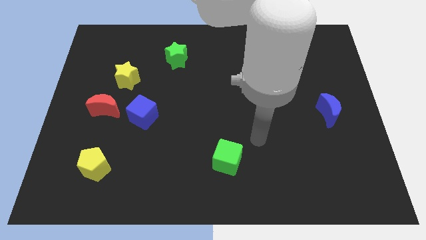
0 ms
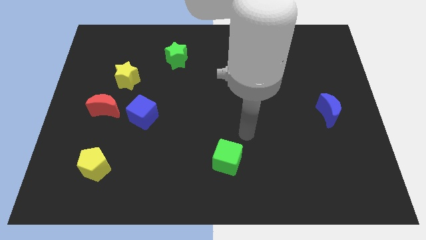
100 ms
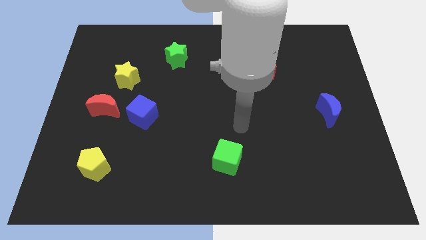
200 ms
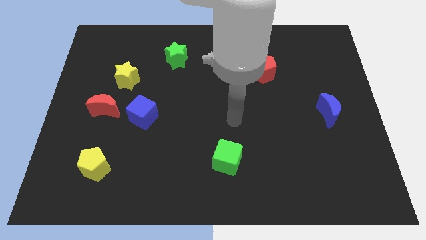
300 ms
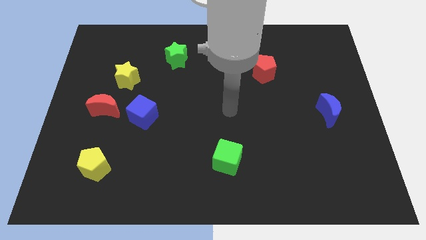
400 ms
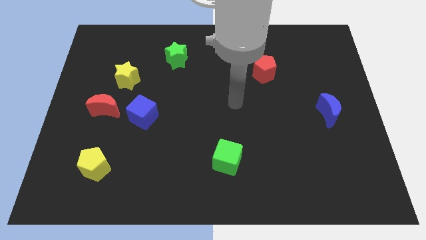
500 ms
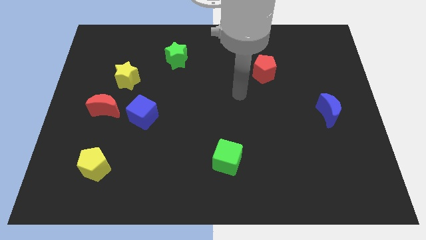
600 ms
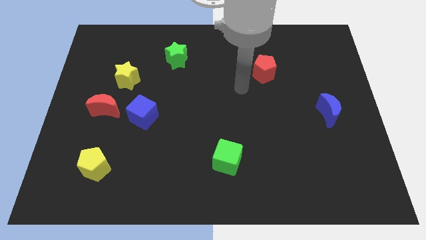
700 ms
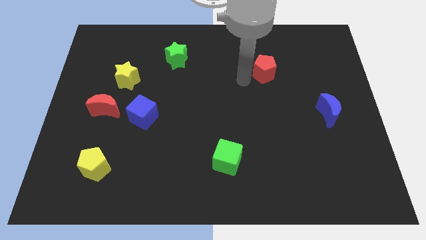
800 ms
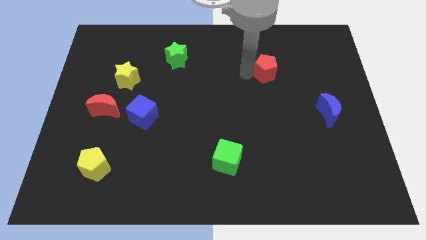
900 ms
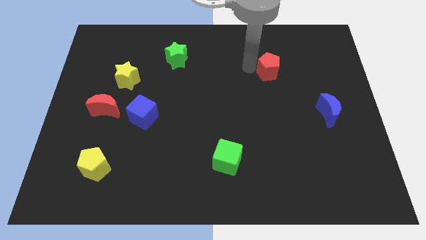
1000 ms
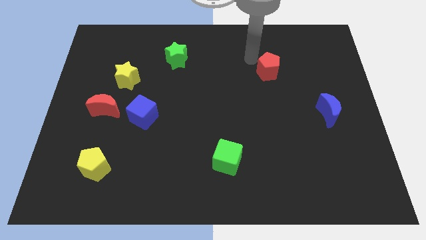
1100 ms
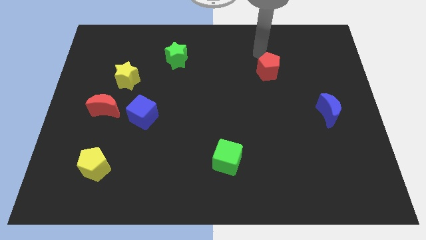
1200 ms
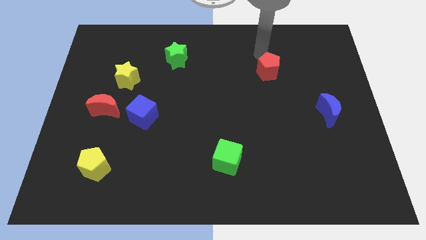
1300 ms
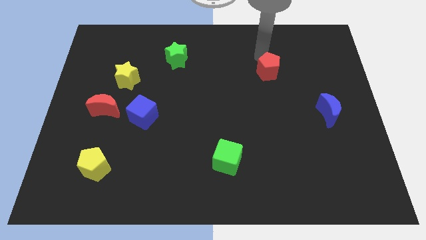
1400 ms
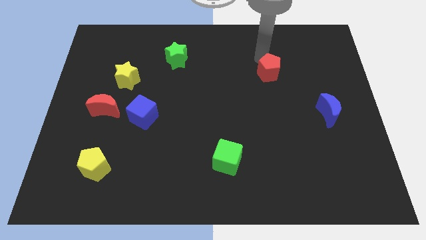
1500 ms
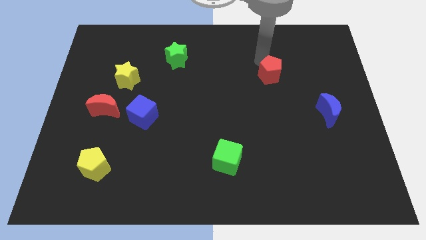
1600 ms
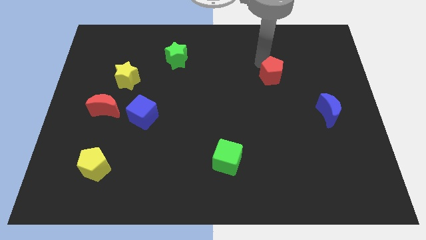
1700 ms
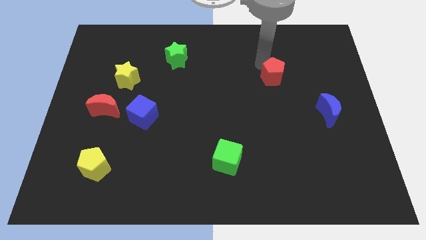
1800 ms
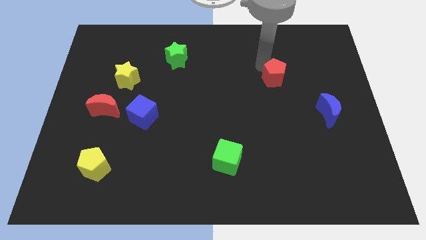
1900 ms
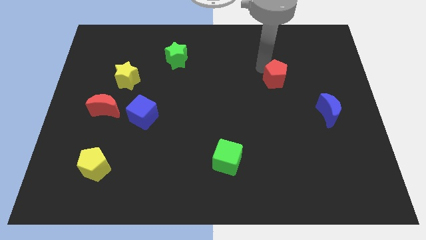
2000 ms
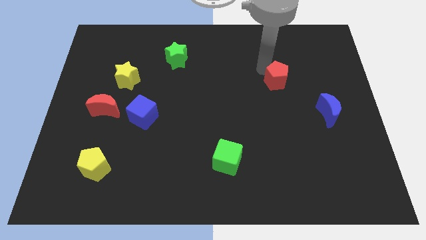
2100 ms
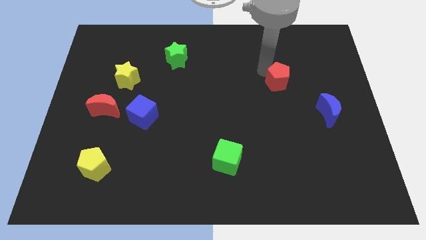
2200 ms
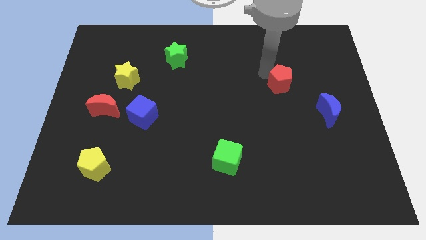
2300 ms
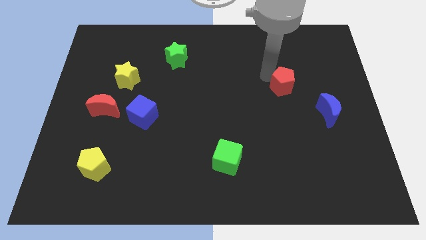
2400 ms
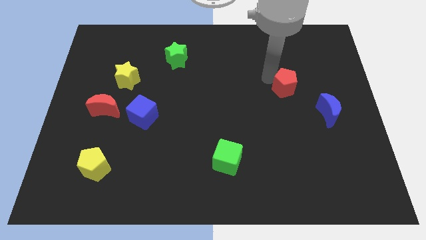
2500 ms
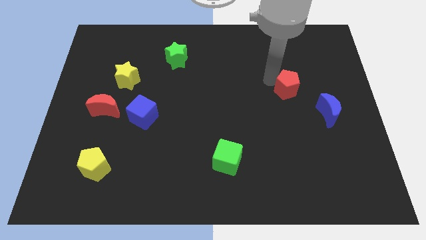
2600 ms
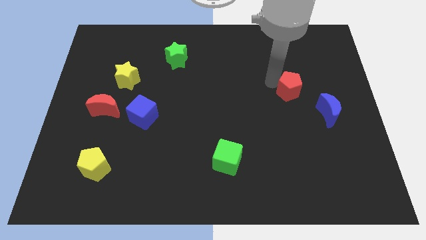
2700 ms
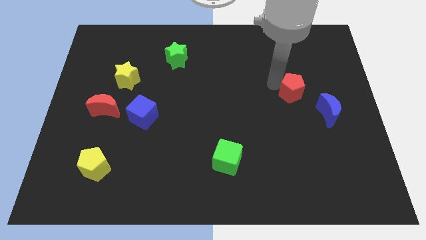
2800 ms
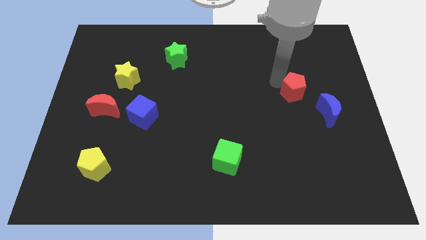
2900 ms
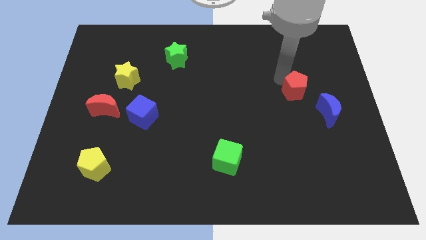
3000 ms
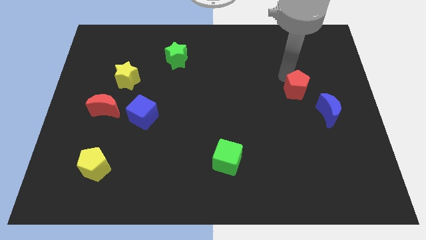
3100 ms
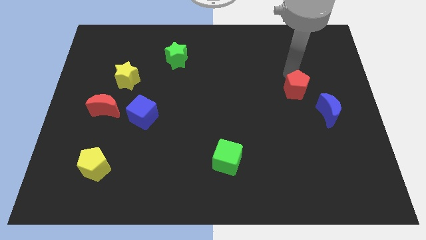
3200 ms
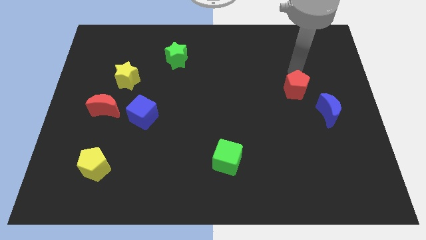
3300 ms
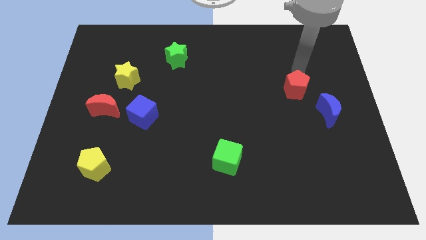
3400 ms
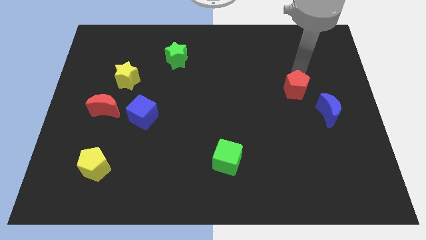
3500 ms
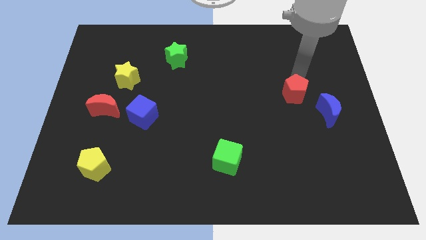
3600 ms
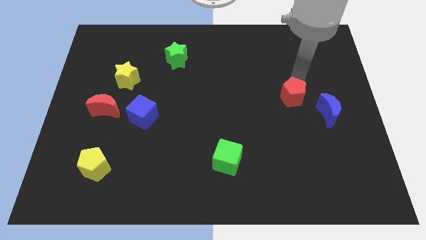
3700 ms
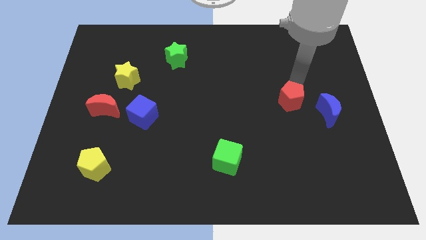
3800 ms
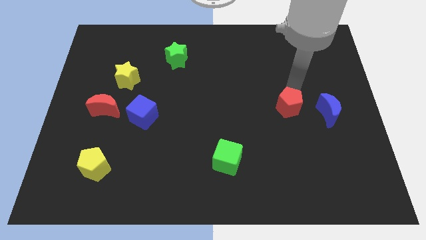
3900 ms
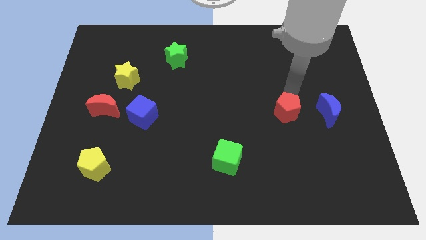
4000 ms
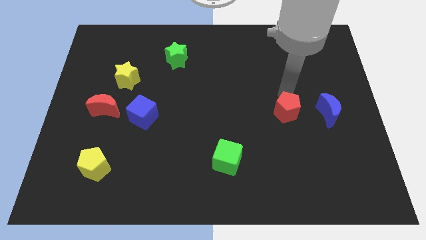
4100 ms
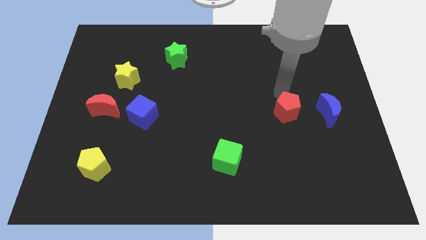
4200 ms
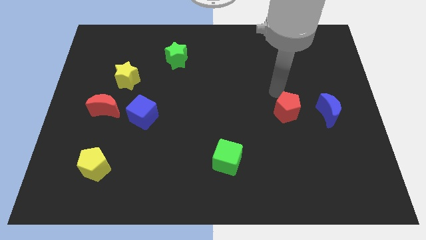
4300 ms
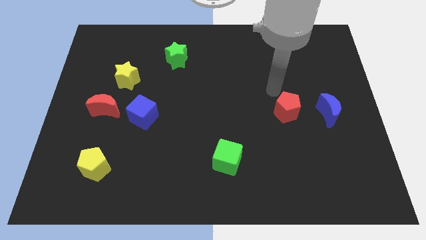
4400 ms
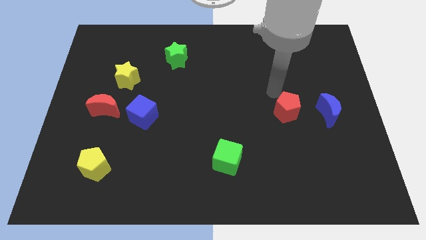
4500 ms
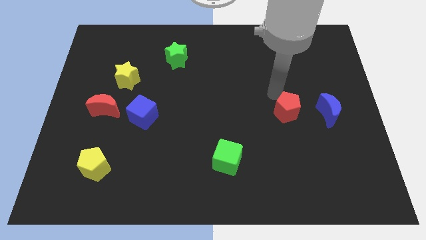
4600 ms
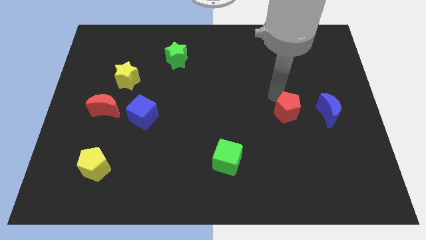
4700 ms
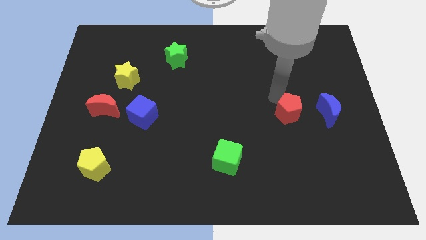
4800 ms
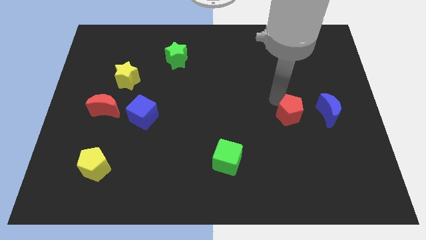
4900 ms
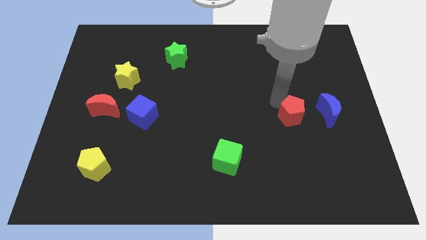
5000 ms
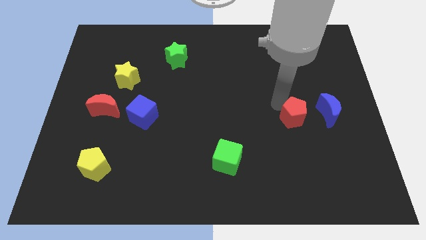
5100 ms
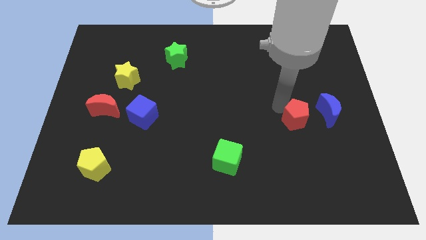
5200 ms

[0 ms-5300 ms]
move the red pentagon to the bottom left of the blue moon

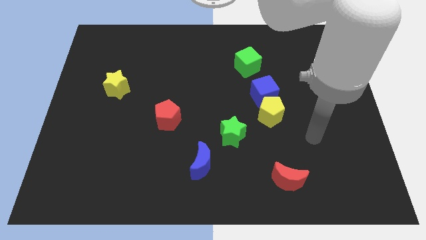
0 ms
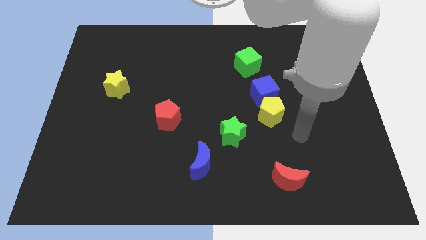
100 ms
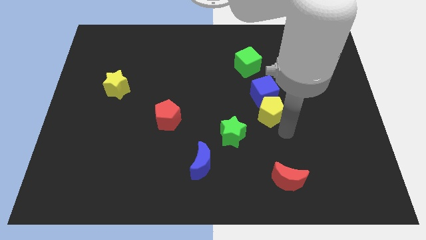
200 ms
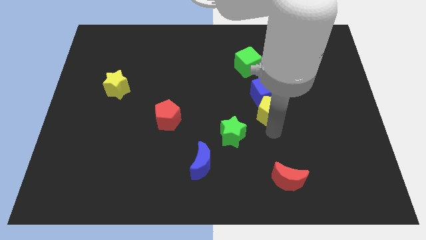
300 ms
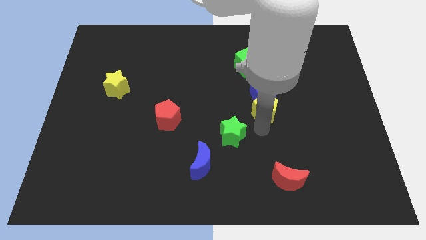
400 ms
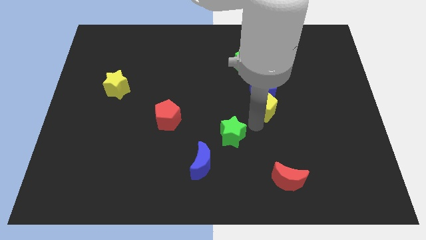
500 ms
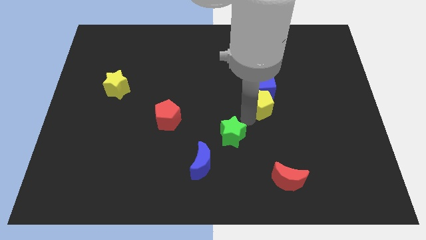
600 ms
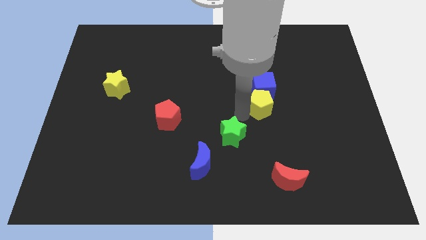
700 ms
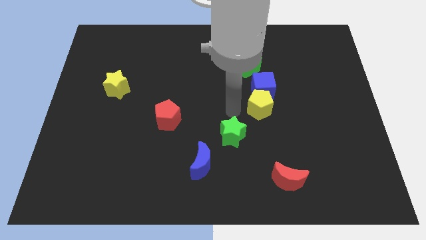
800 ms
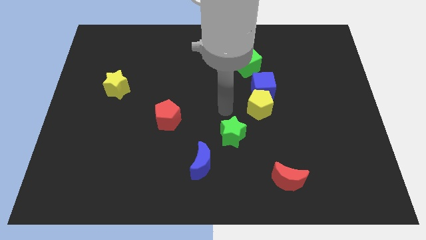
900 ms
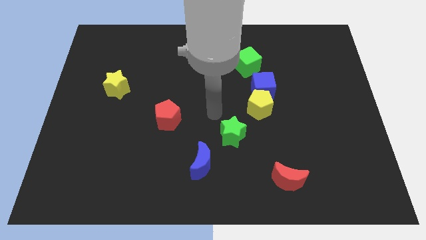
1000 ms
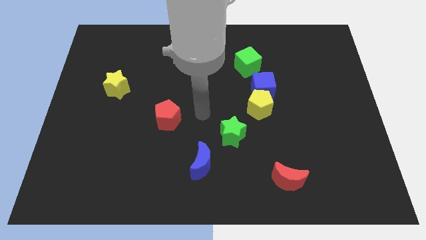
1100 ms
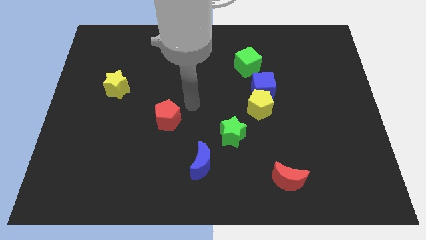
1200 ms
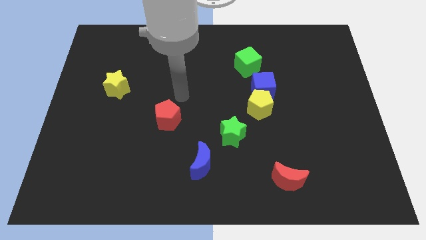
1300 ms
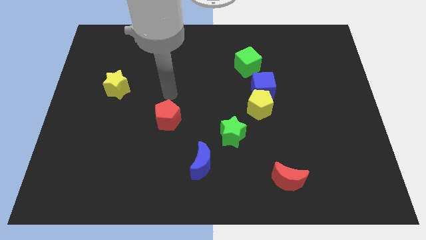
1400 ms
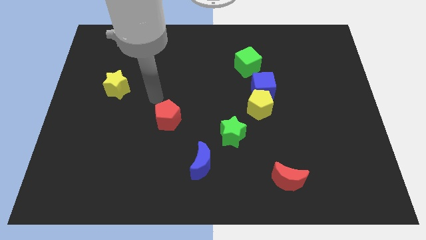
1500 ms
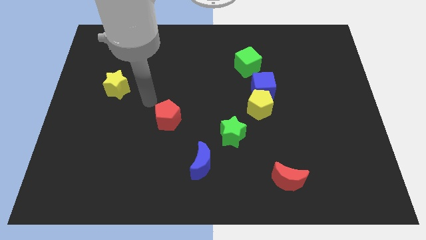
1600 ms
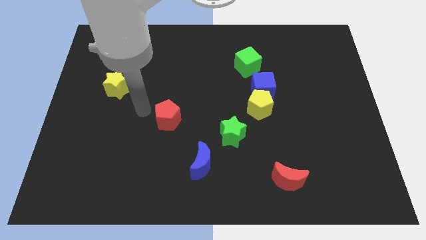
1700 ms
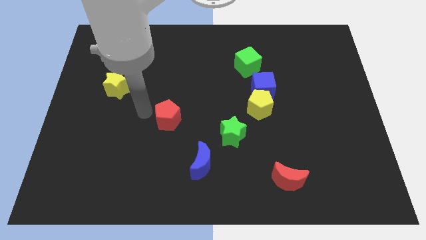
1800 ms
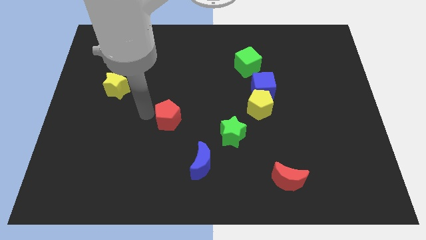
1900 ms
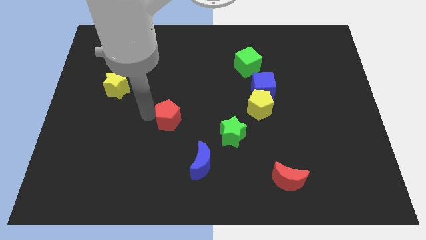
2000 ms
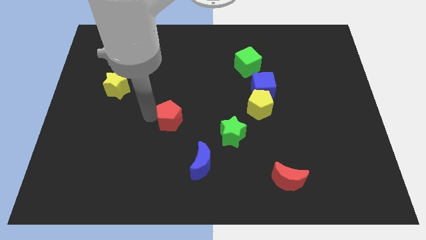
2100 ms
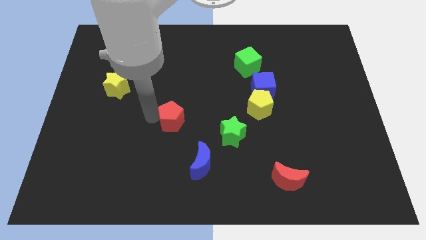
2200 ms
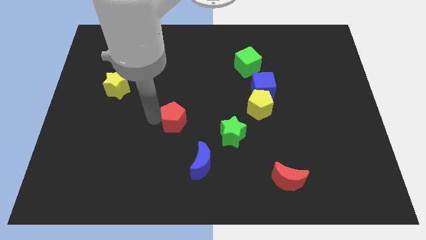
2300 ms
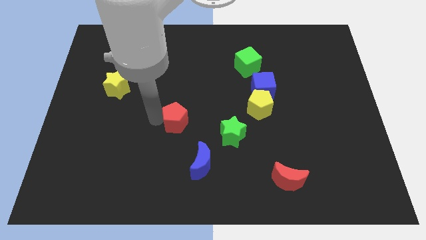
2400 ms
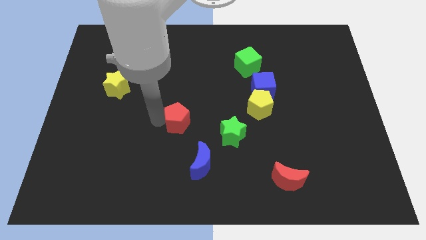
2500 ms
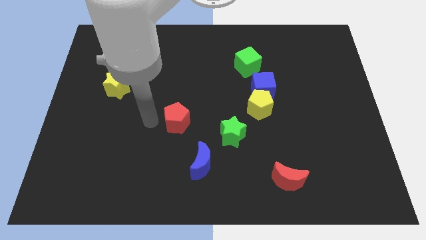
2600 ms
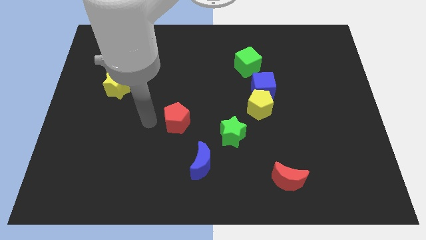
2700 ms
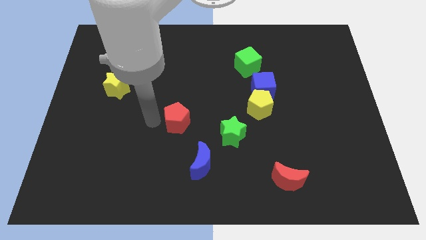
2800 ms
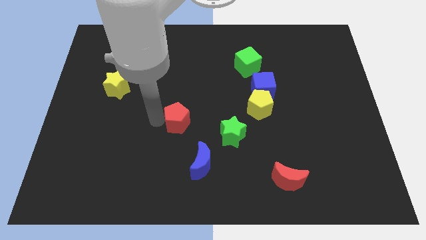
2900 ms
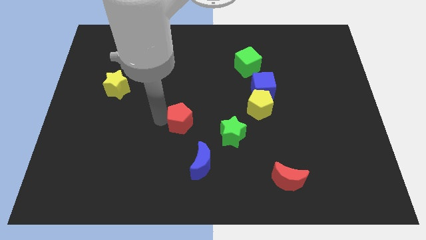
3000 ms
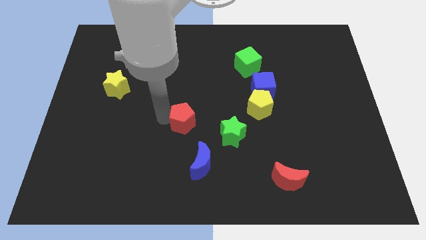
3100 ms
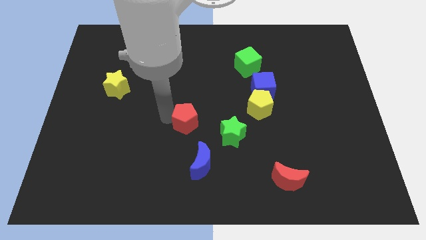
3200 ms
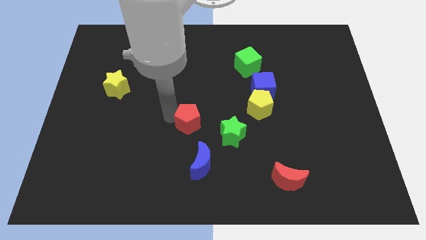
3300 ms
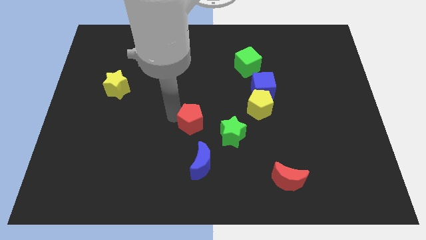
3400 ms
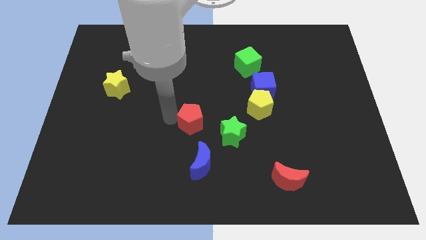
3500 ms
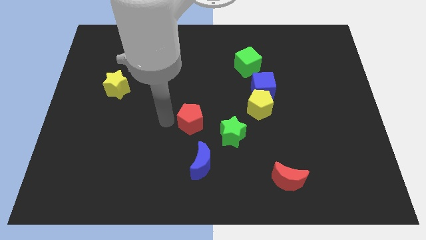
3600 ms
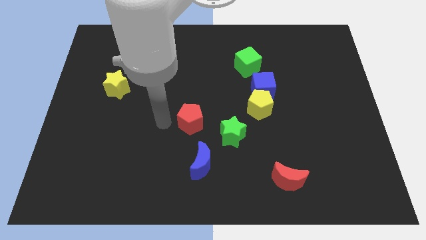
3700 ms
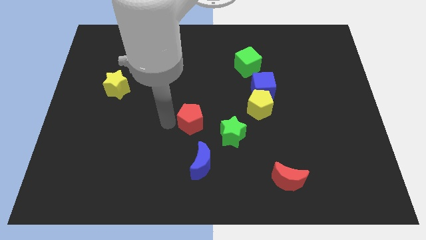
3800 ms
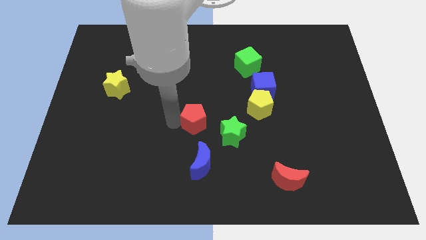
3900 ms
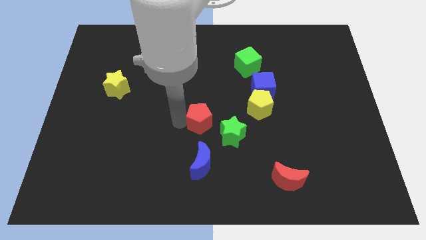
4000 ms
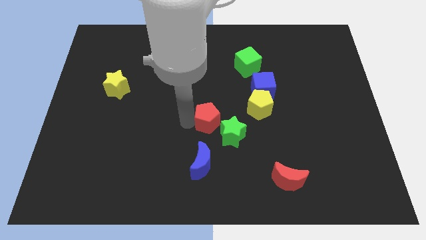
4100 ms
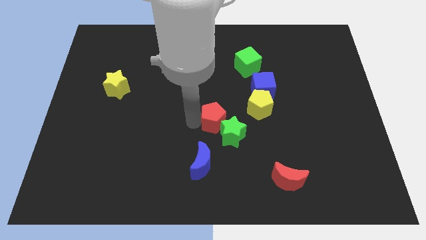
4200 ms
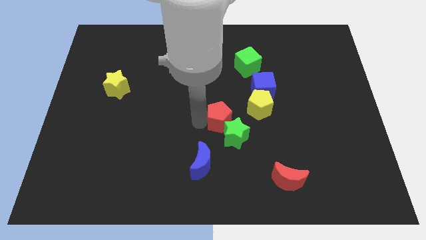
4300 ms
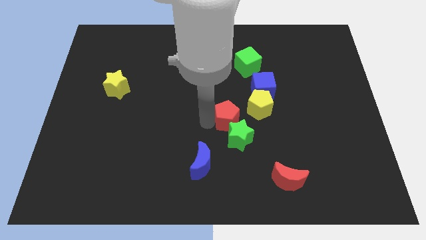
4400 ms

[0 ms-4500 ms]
slide the red pentagon to the bottom left side of the blue cube
